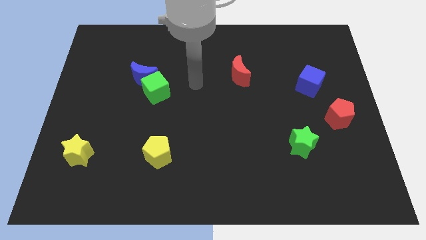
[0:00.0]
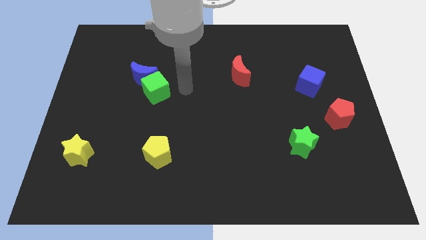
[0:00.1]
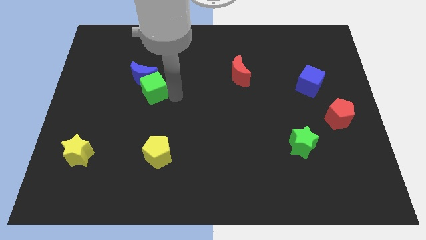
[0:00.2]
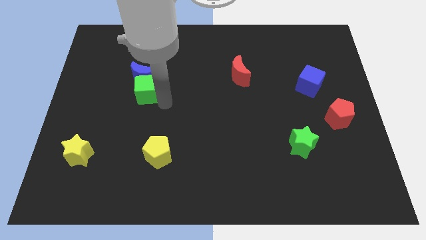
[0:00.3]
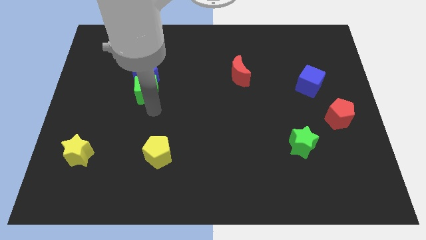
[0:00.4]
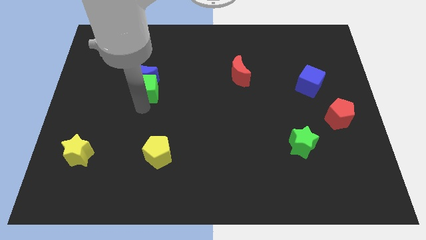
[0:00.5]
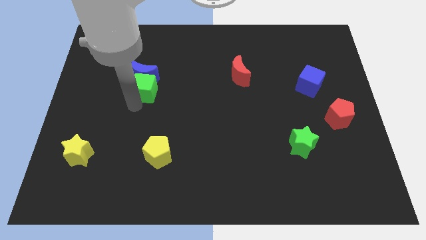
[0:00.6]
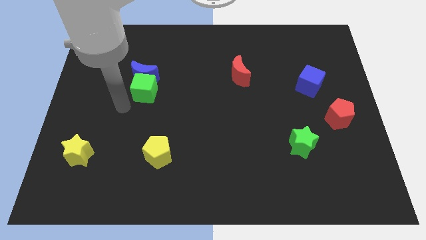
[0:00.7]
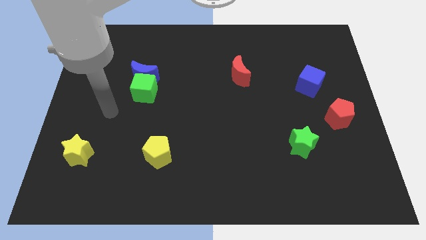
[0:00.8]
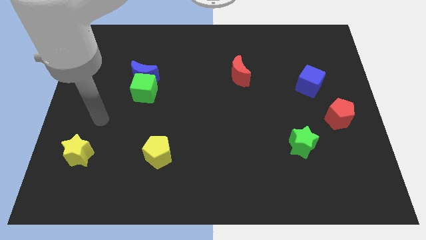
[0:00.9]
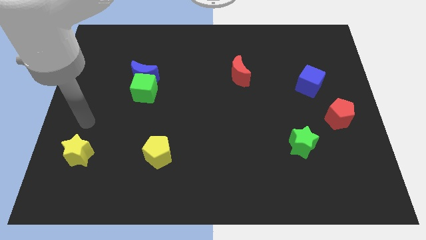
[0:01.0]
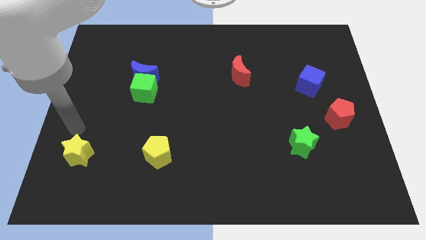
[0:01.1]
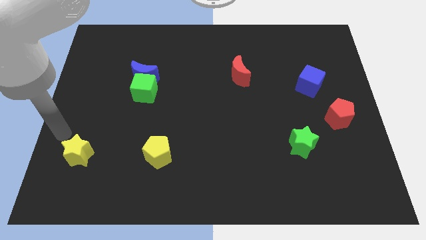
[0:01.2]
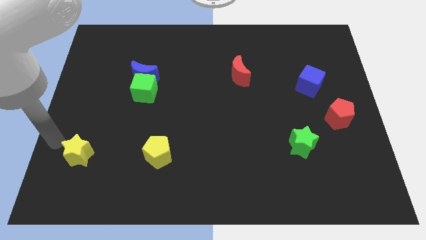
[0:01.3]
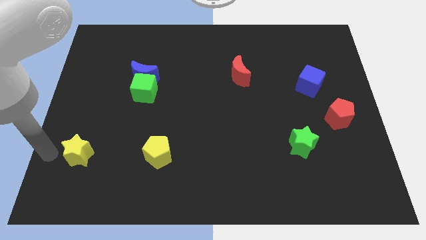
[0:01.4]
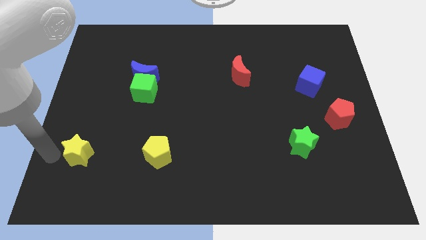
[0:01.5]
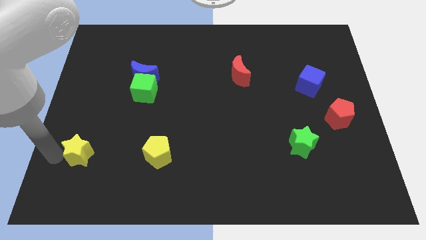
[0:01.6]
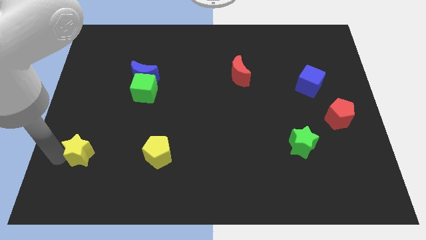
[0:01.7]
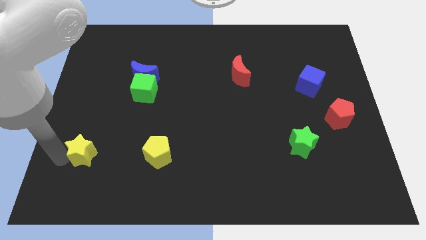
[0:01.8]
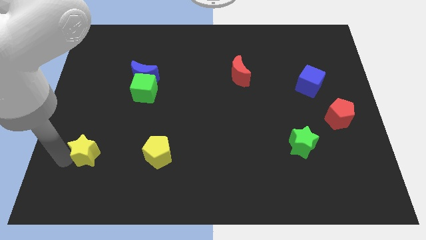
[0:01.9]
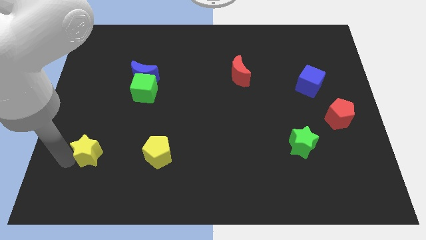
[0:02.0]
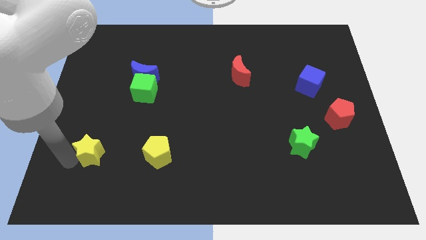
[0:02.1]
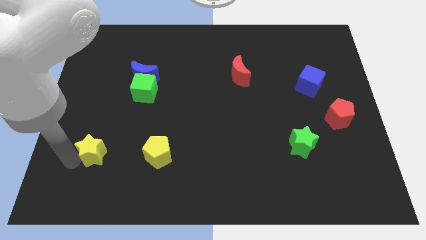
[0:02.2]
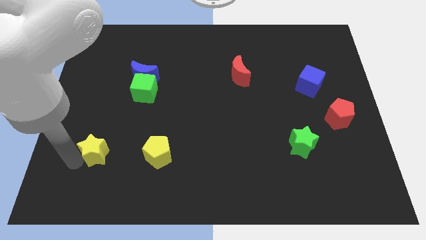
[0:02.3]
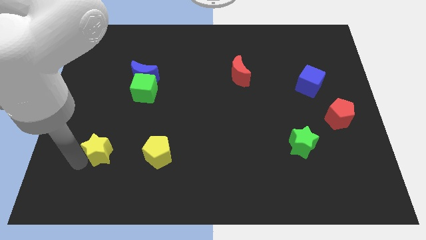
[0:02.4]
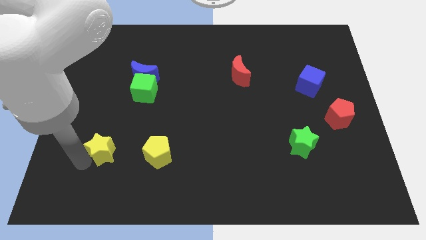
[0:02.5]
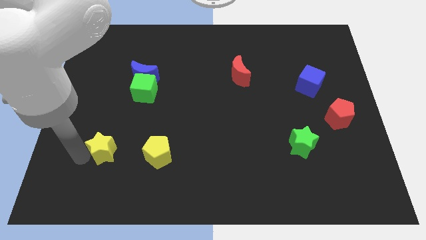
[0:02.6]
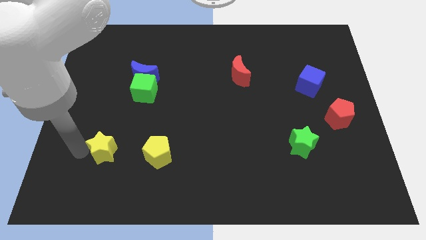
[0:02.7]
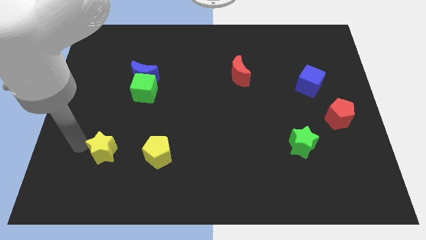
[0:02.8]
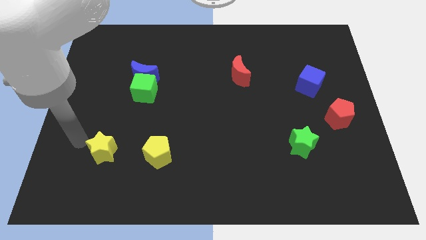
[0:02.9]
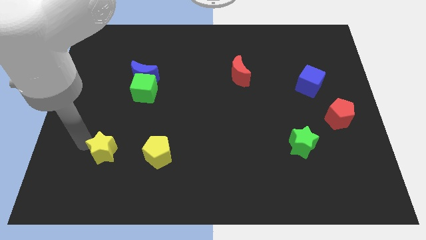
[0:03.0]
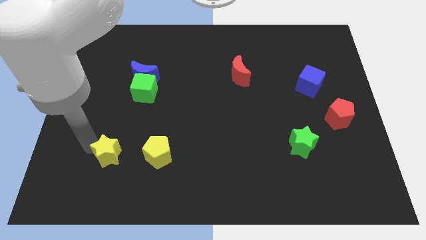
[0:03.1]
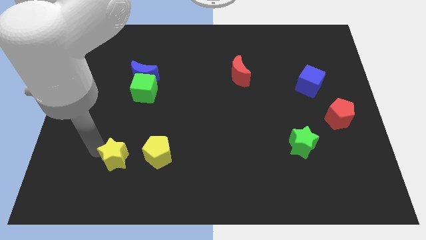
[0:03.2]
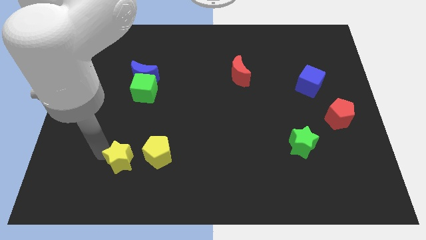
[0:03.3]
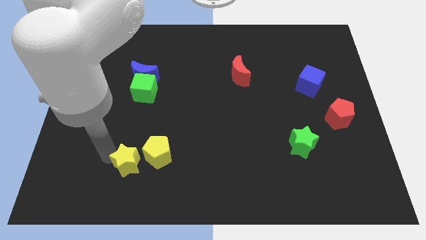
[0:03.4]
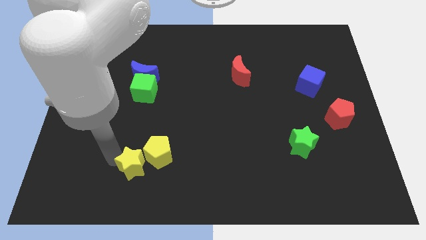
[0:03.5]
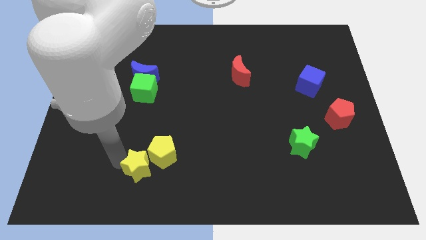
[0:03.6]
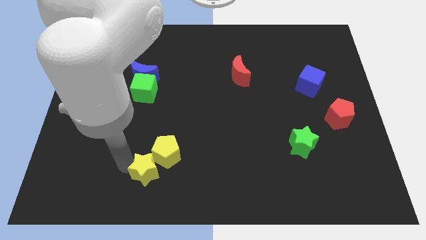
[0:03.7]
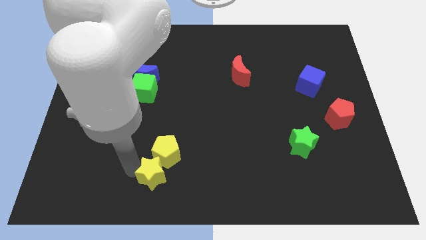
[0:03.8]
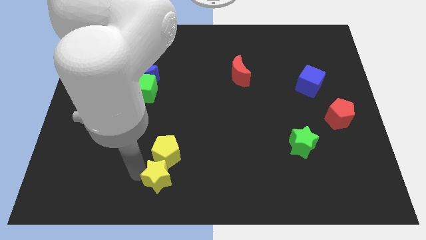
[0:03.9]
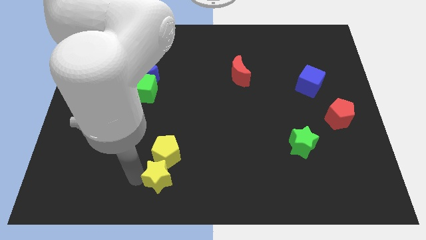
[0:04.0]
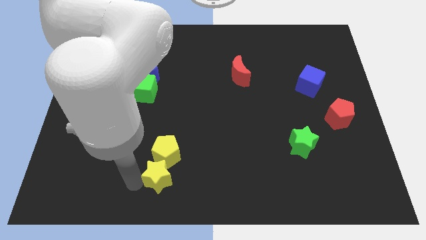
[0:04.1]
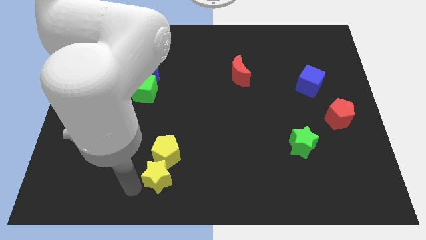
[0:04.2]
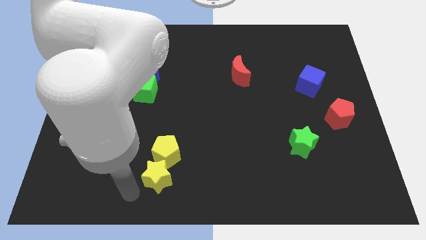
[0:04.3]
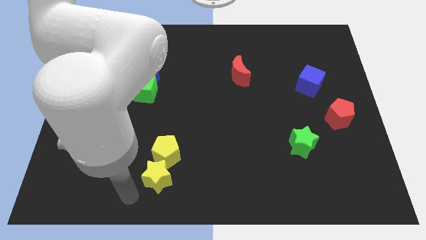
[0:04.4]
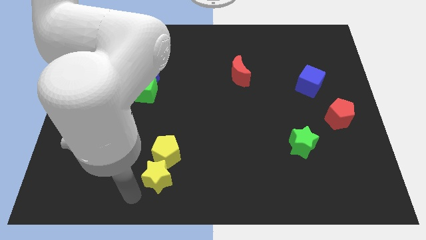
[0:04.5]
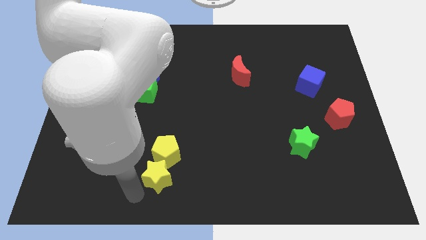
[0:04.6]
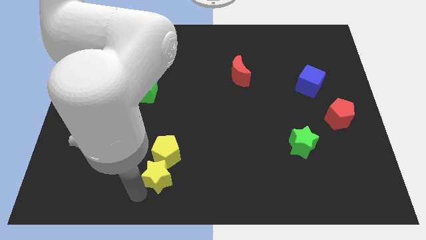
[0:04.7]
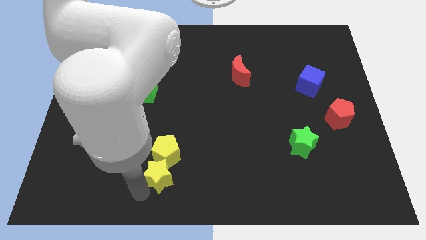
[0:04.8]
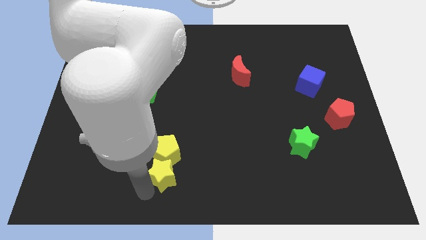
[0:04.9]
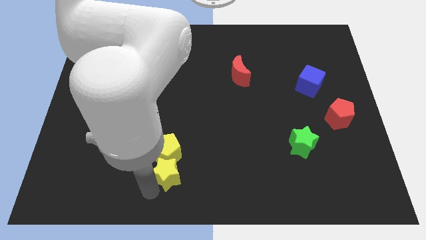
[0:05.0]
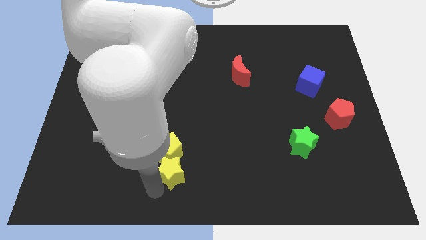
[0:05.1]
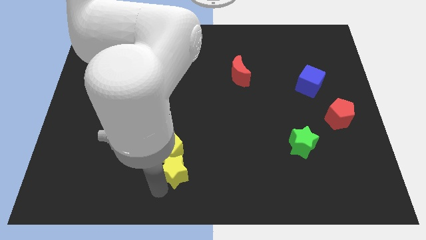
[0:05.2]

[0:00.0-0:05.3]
move the yellow star right

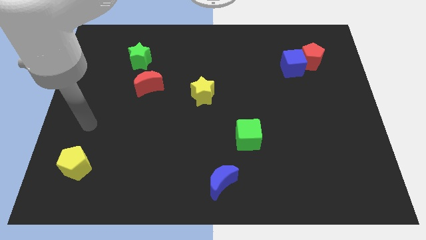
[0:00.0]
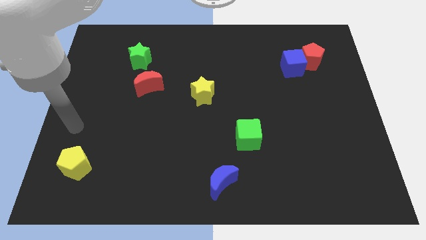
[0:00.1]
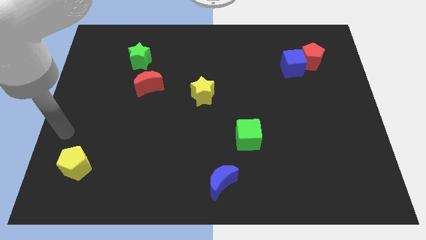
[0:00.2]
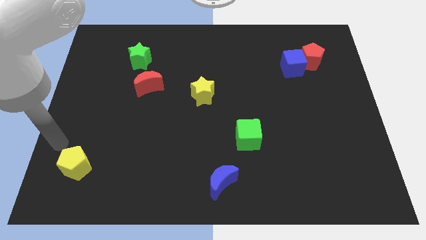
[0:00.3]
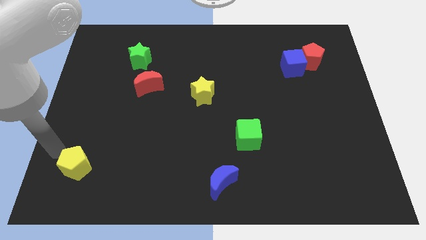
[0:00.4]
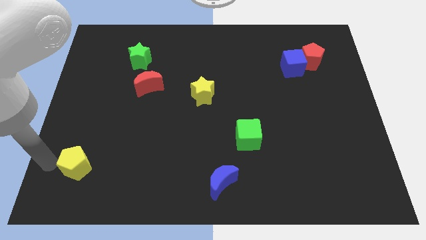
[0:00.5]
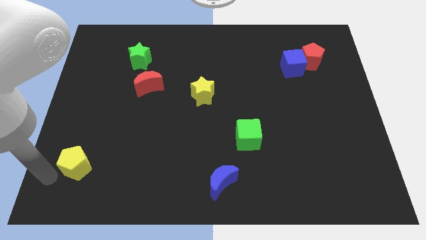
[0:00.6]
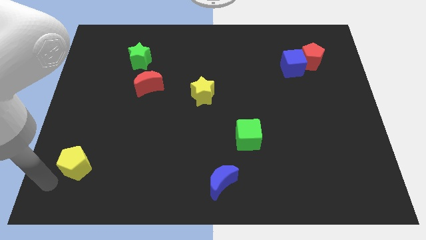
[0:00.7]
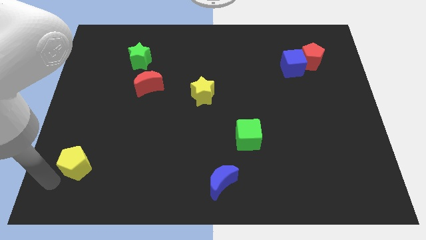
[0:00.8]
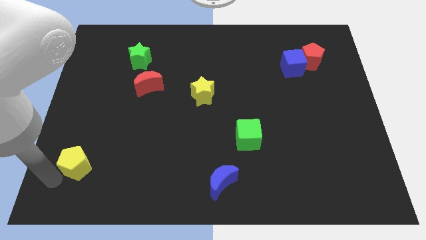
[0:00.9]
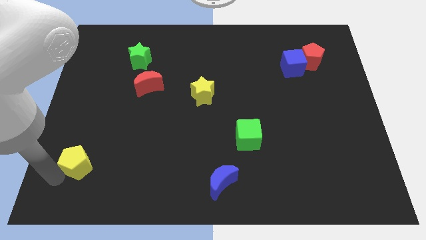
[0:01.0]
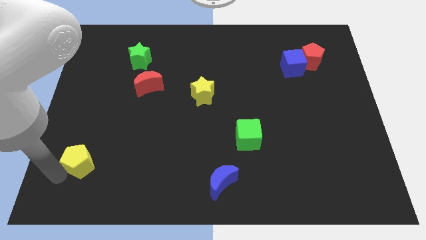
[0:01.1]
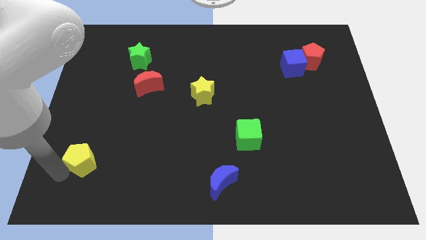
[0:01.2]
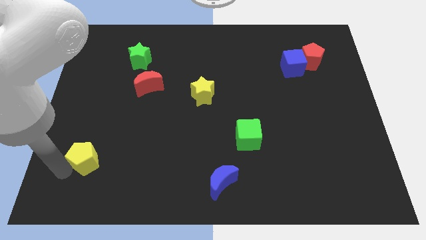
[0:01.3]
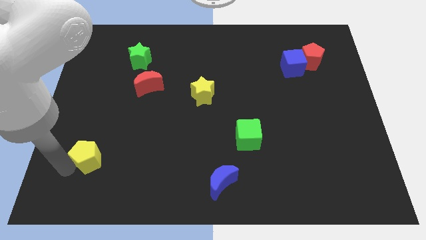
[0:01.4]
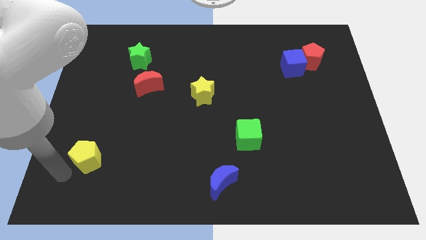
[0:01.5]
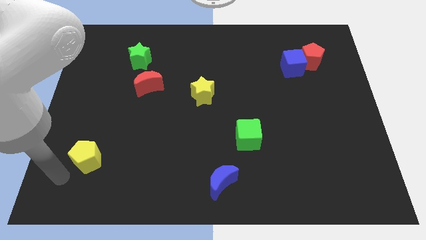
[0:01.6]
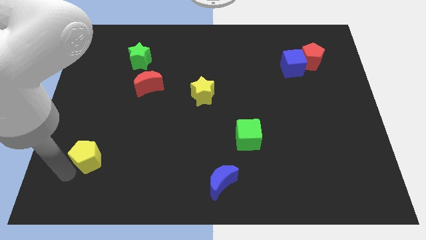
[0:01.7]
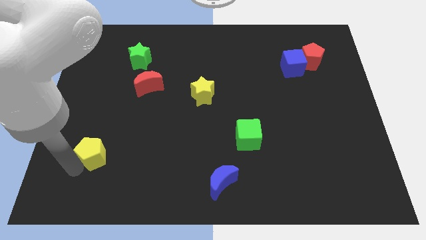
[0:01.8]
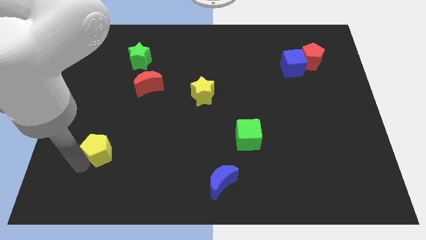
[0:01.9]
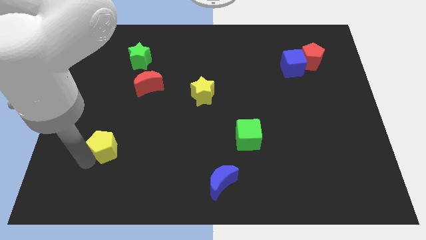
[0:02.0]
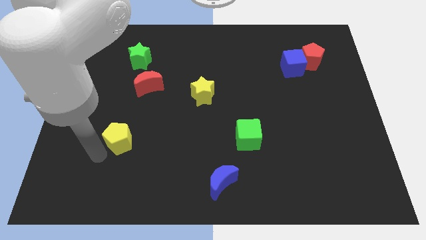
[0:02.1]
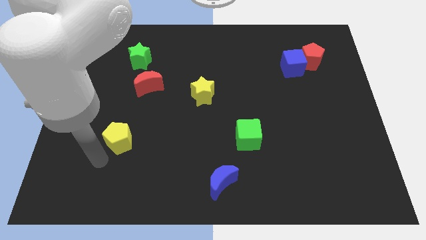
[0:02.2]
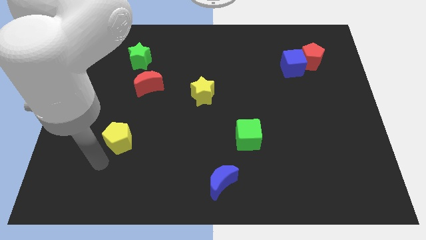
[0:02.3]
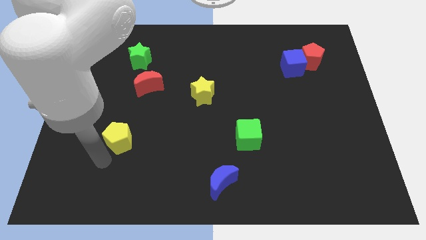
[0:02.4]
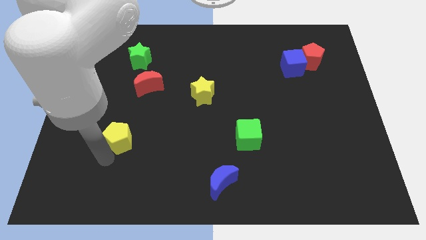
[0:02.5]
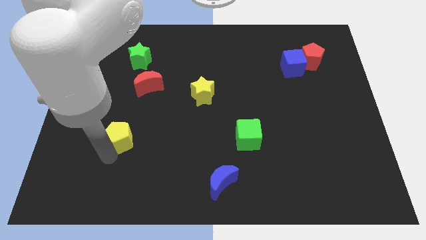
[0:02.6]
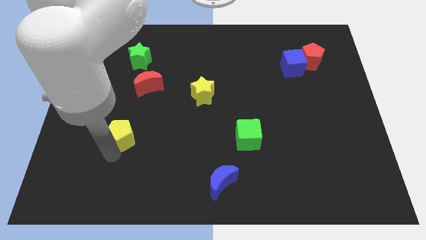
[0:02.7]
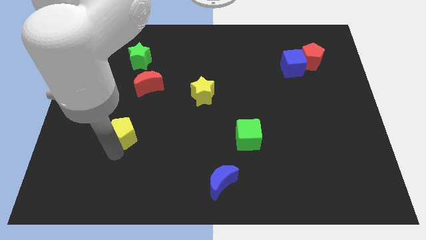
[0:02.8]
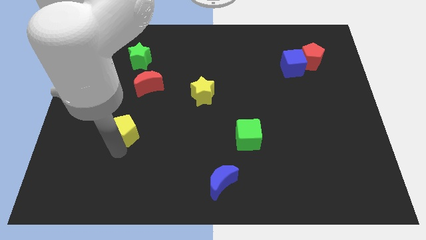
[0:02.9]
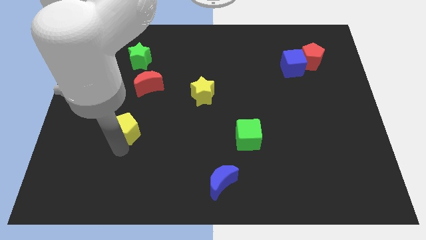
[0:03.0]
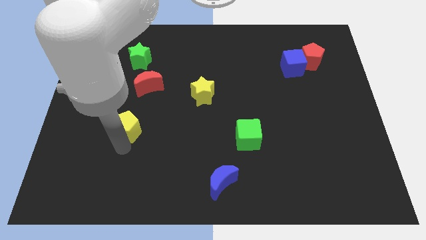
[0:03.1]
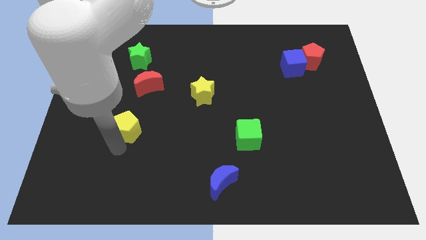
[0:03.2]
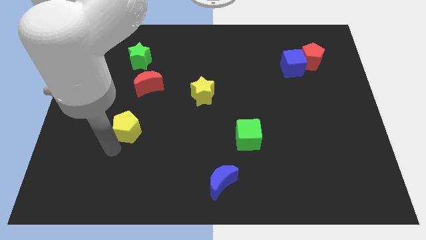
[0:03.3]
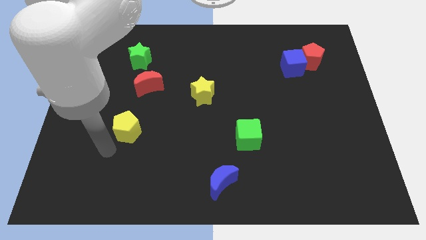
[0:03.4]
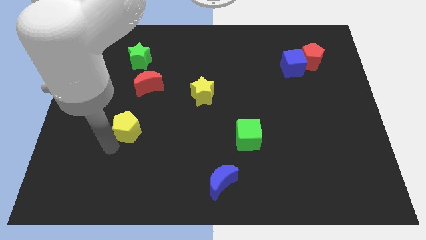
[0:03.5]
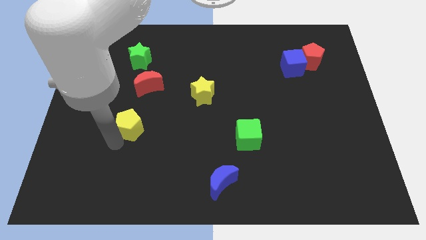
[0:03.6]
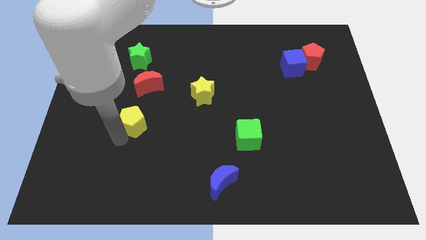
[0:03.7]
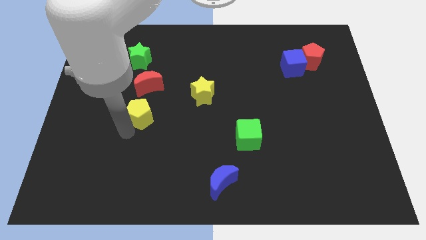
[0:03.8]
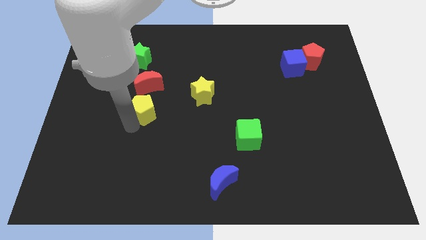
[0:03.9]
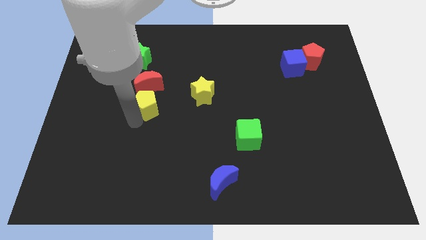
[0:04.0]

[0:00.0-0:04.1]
move the yellow pentagon upwards and right
